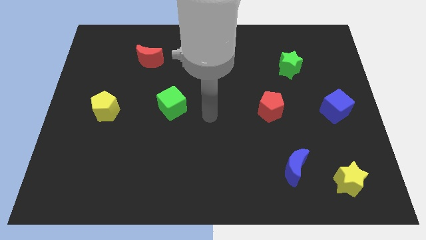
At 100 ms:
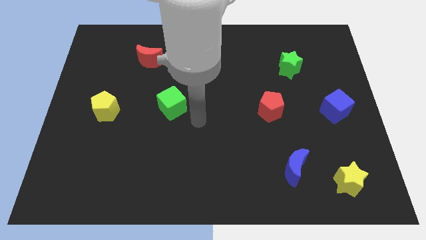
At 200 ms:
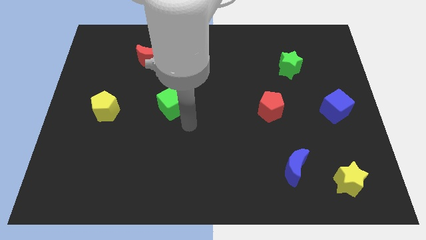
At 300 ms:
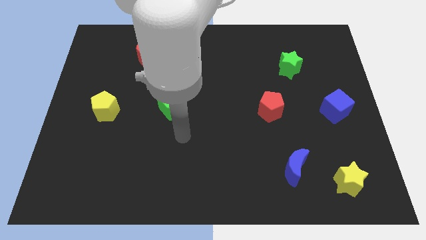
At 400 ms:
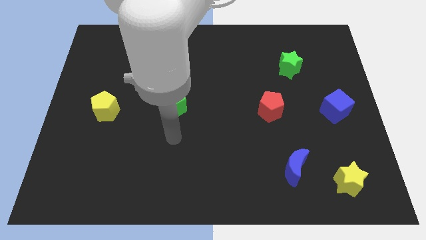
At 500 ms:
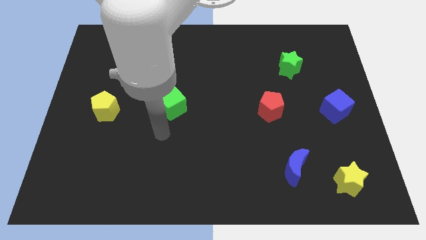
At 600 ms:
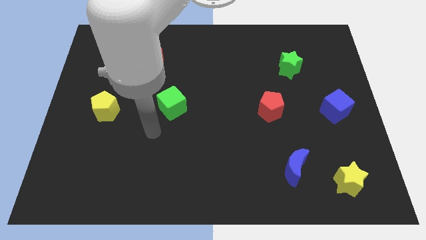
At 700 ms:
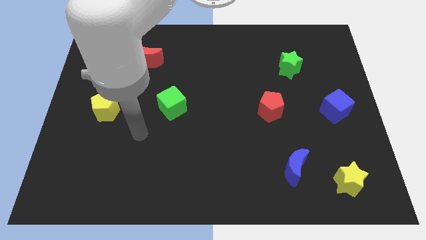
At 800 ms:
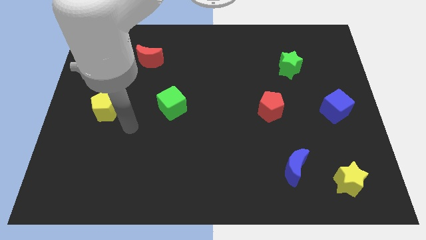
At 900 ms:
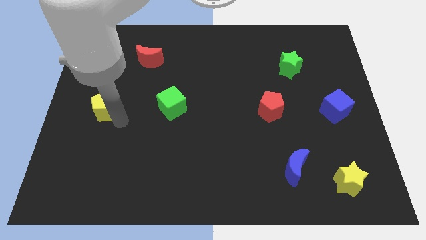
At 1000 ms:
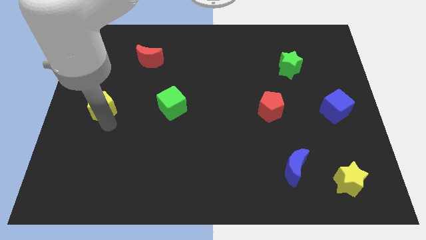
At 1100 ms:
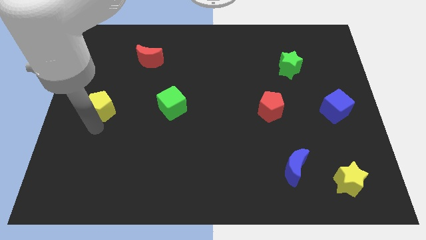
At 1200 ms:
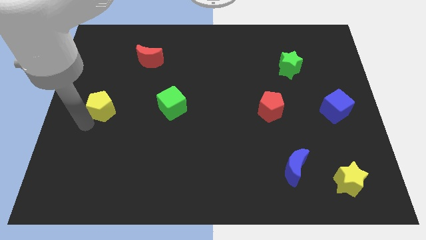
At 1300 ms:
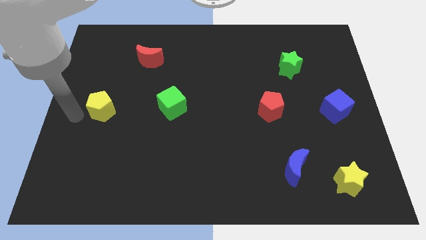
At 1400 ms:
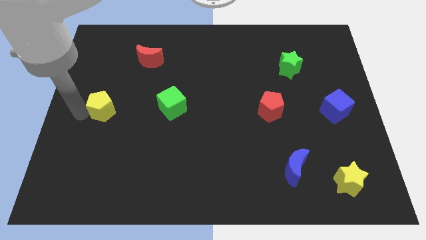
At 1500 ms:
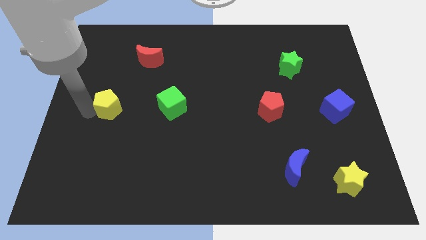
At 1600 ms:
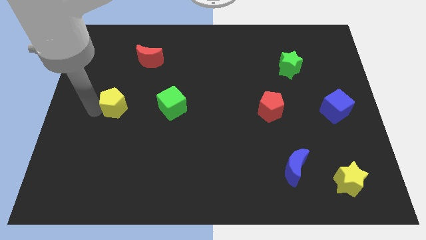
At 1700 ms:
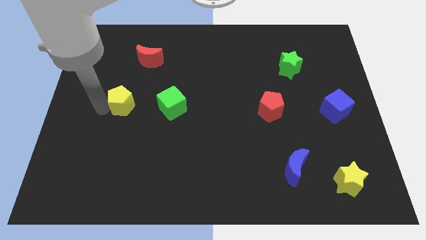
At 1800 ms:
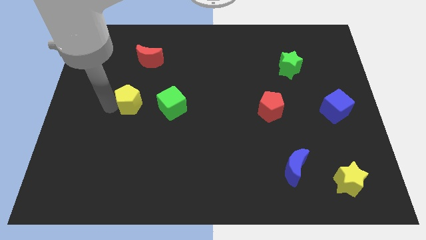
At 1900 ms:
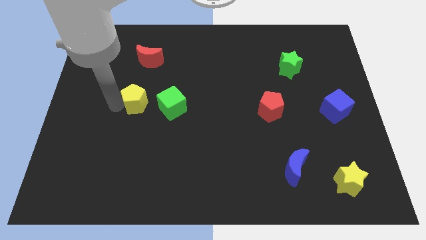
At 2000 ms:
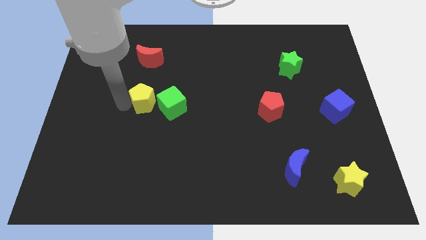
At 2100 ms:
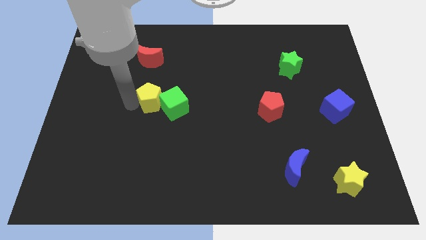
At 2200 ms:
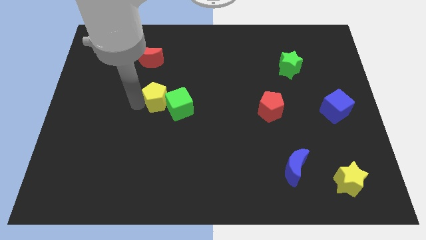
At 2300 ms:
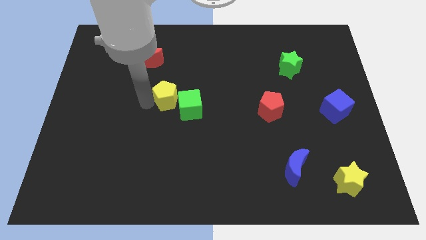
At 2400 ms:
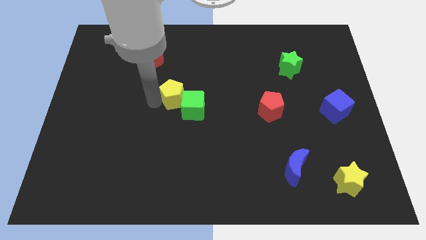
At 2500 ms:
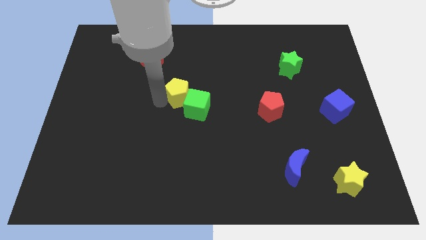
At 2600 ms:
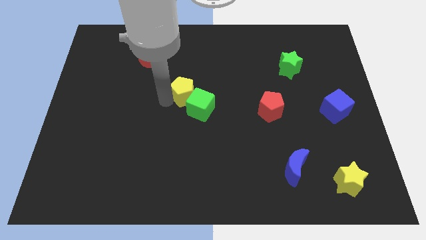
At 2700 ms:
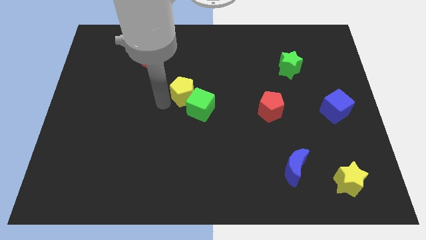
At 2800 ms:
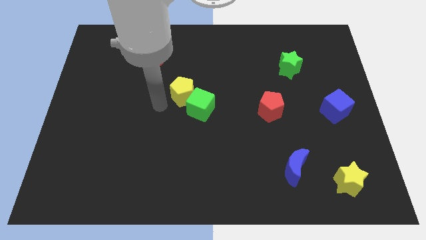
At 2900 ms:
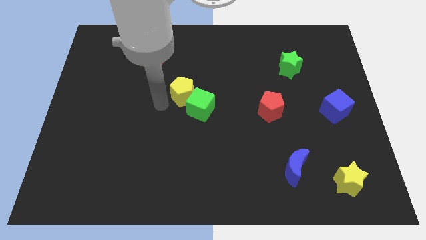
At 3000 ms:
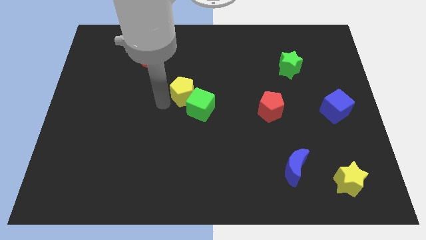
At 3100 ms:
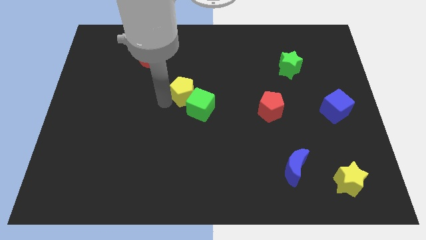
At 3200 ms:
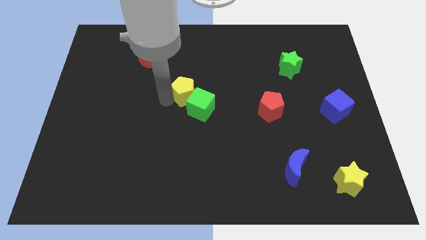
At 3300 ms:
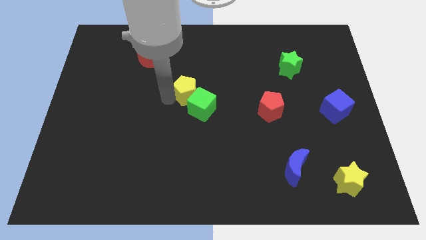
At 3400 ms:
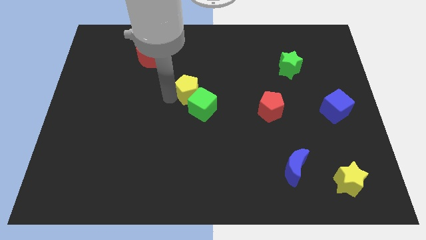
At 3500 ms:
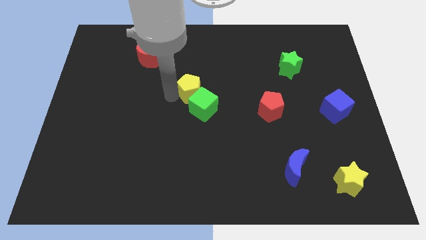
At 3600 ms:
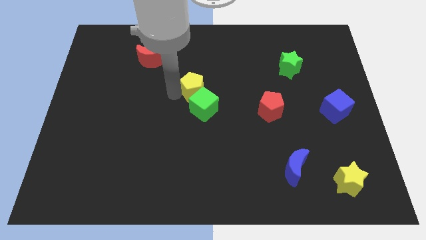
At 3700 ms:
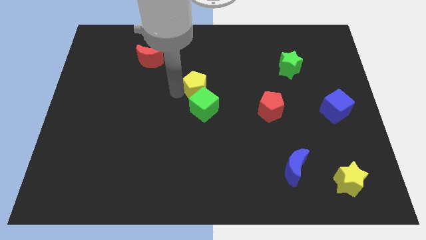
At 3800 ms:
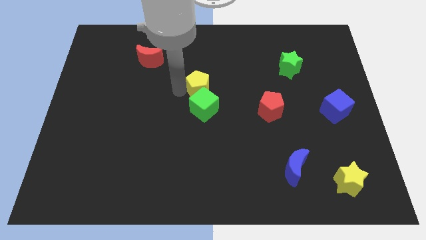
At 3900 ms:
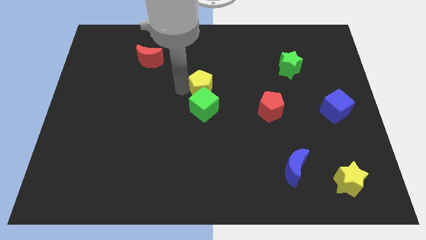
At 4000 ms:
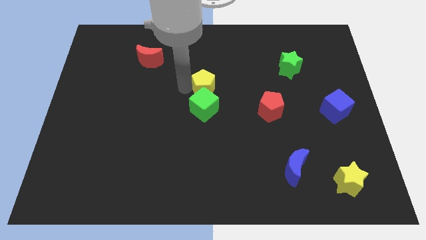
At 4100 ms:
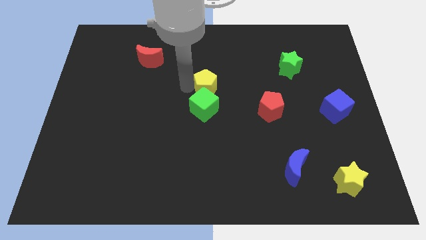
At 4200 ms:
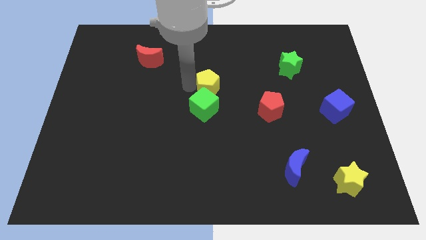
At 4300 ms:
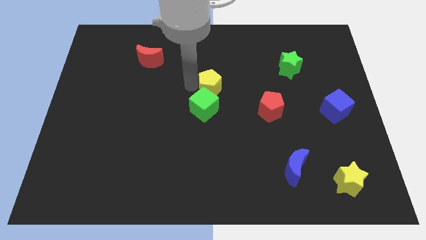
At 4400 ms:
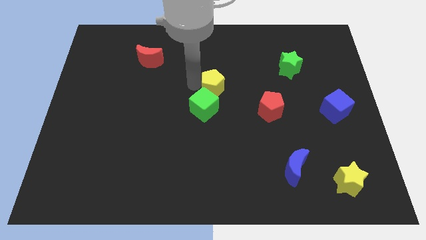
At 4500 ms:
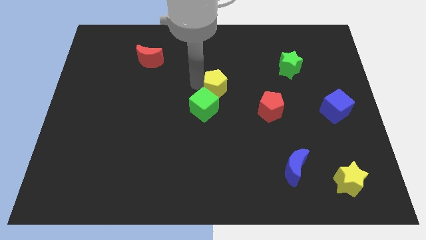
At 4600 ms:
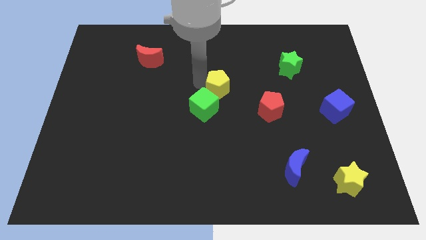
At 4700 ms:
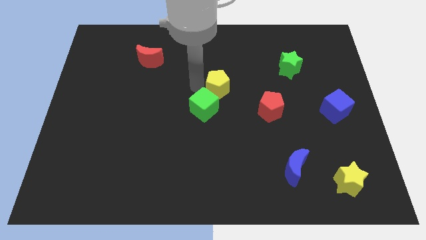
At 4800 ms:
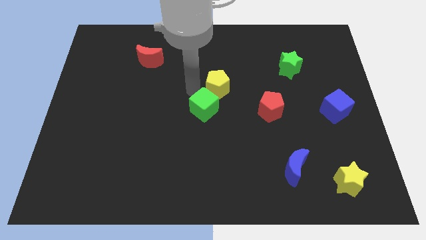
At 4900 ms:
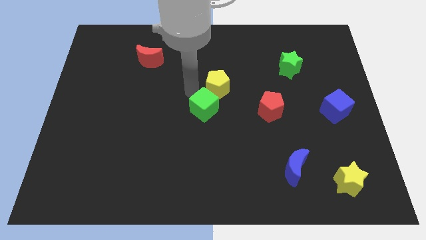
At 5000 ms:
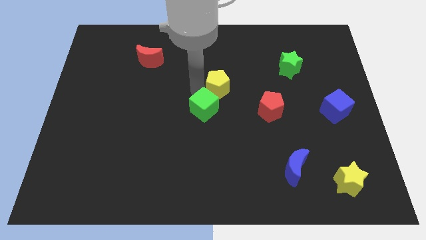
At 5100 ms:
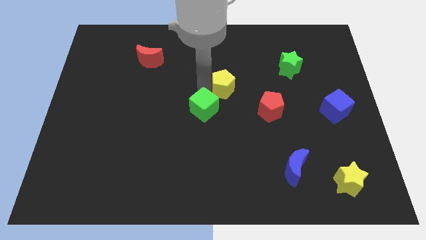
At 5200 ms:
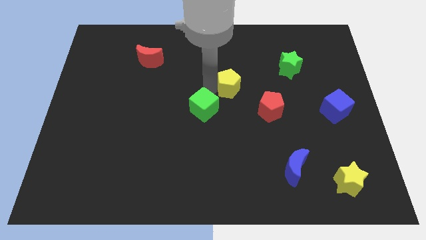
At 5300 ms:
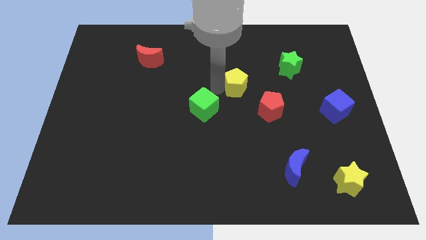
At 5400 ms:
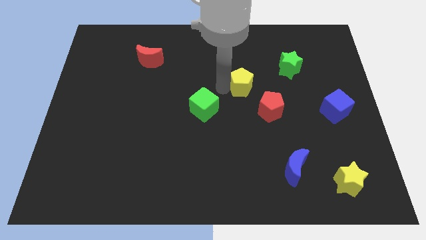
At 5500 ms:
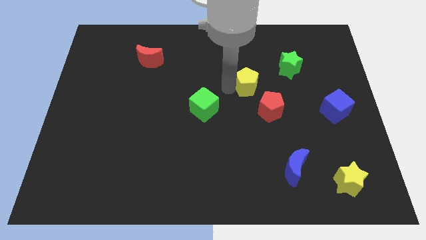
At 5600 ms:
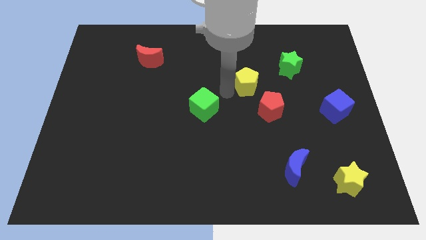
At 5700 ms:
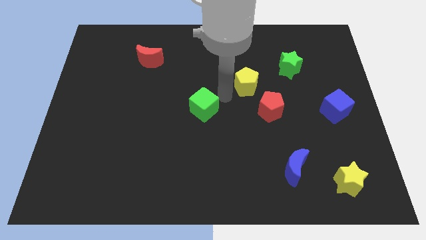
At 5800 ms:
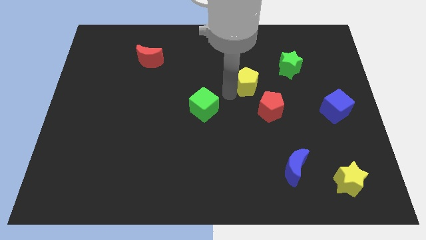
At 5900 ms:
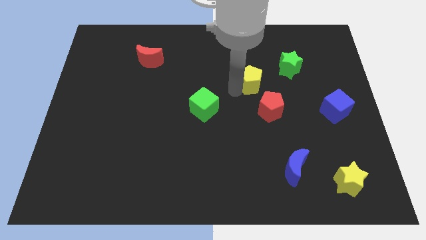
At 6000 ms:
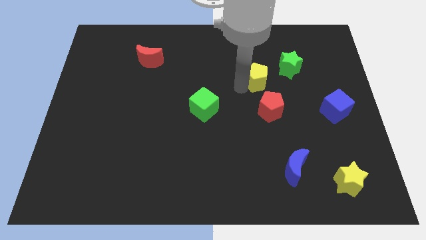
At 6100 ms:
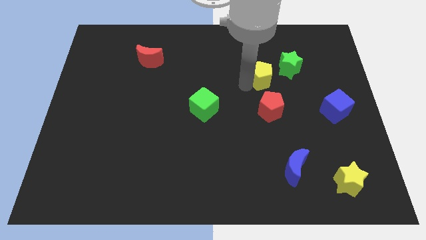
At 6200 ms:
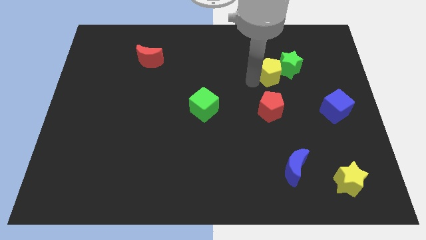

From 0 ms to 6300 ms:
push the yellow pentagon to the green star
